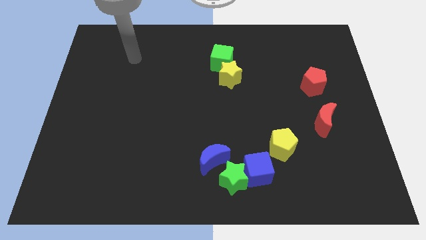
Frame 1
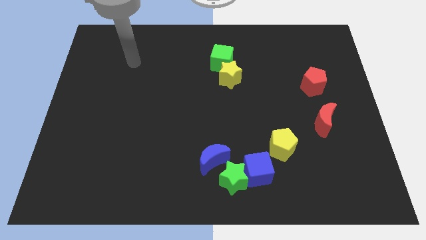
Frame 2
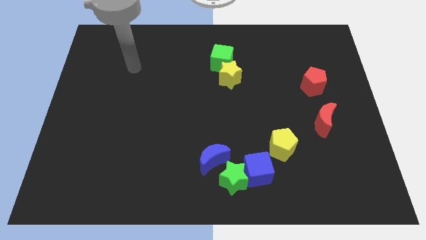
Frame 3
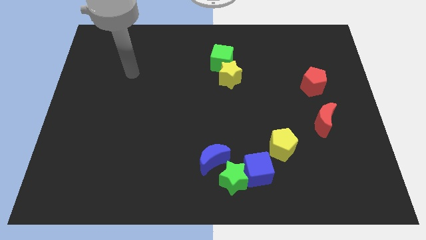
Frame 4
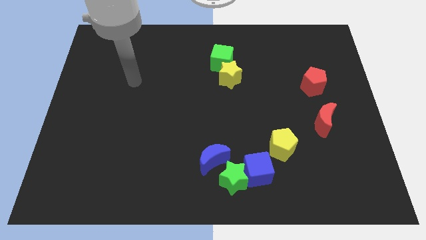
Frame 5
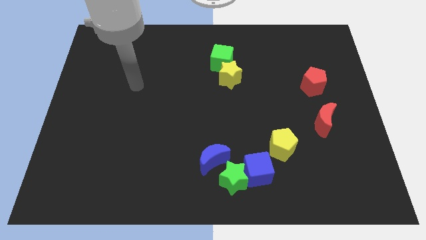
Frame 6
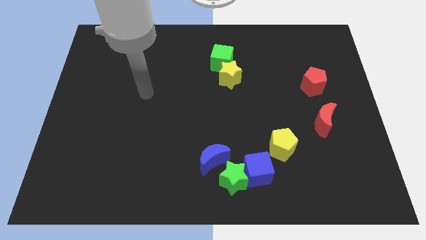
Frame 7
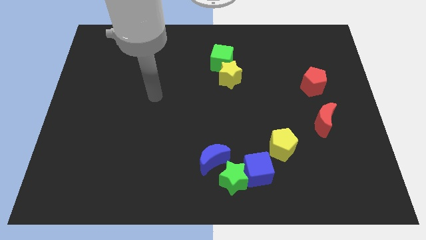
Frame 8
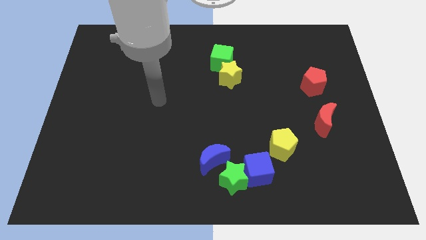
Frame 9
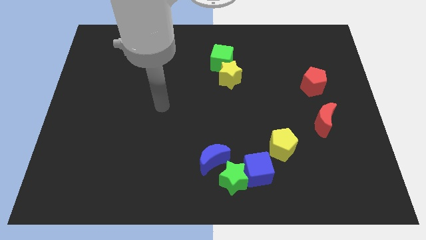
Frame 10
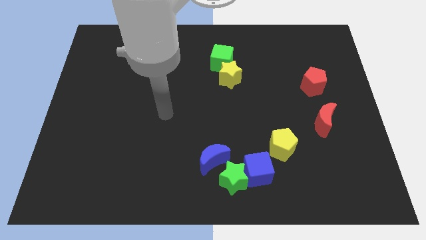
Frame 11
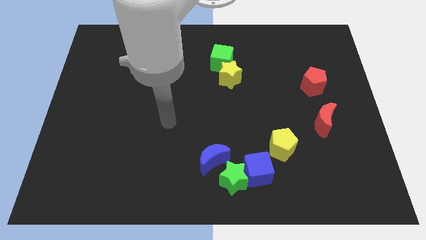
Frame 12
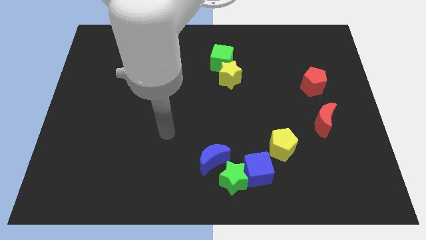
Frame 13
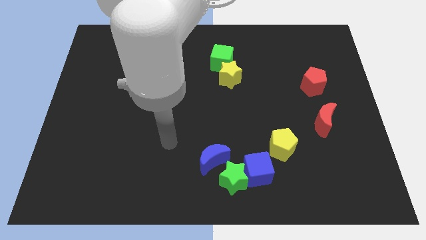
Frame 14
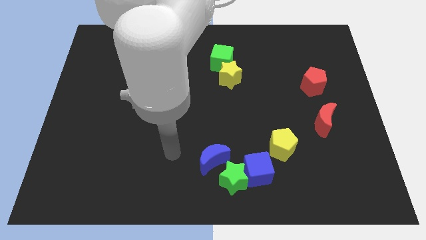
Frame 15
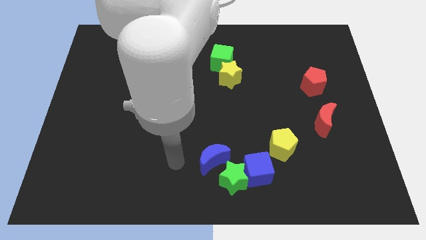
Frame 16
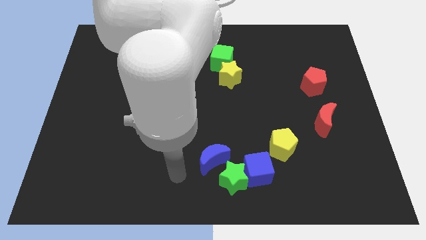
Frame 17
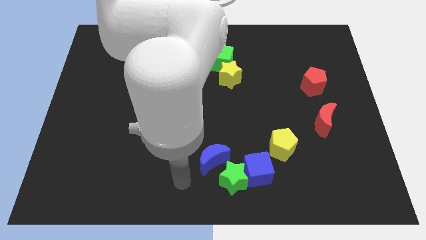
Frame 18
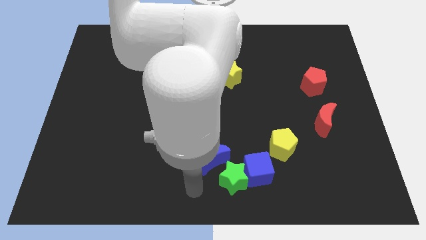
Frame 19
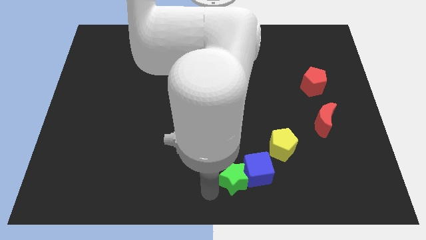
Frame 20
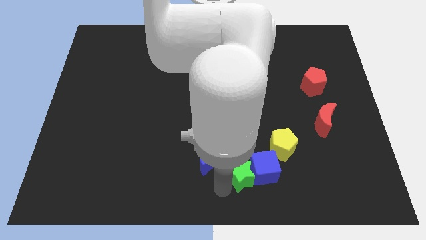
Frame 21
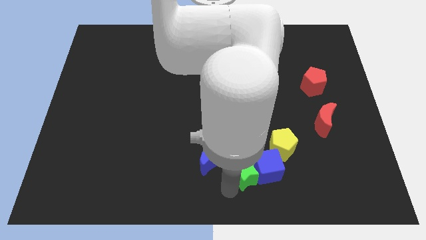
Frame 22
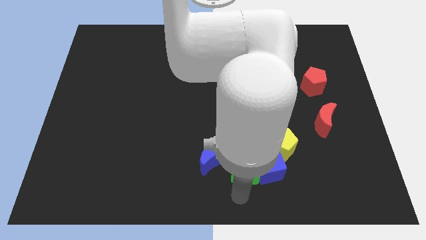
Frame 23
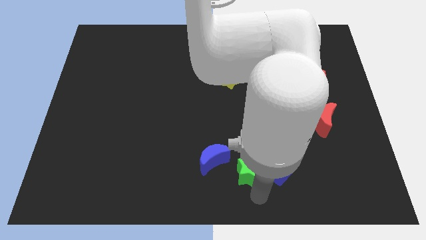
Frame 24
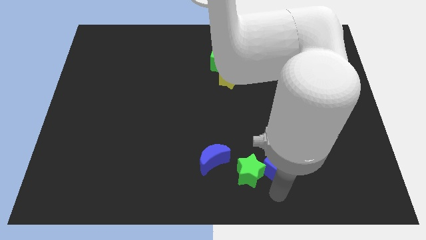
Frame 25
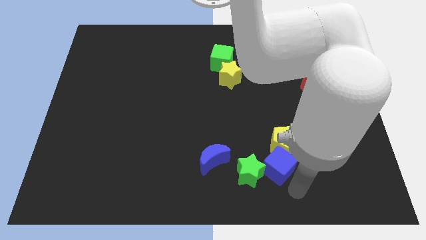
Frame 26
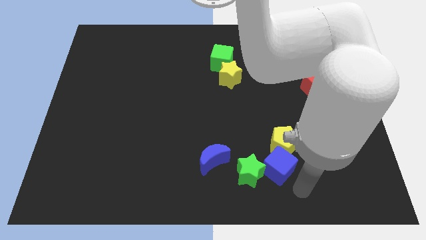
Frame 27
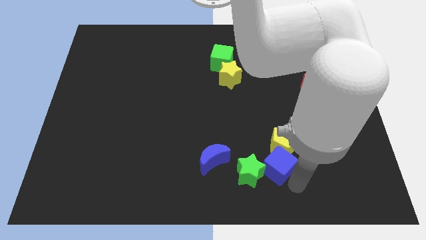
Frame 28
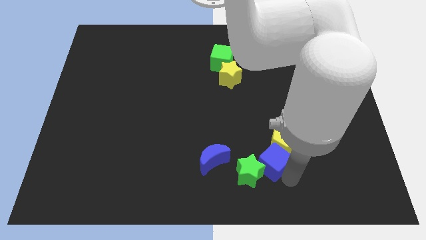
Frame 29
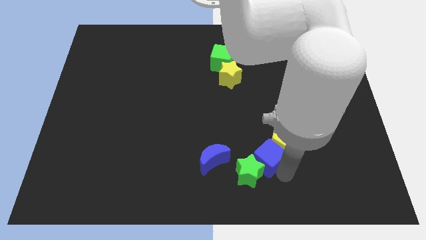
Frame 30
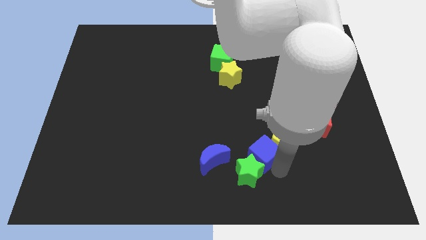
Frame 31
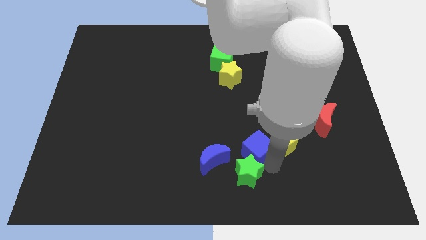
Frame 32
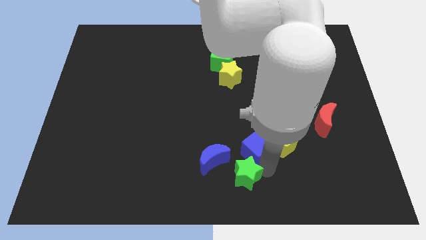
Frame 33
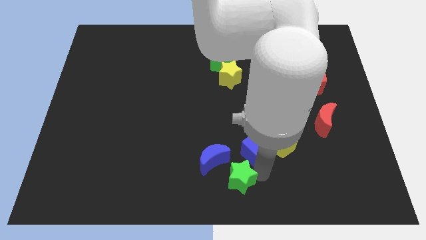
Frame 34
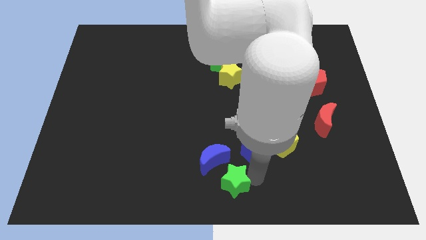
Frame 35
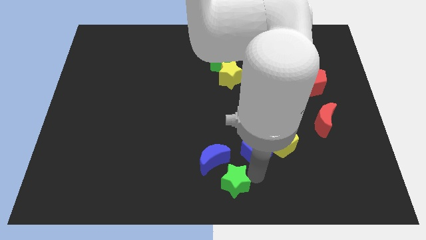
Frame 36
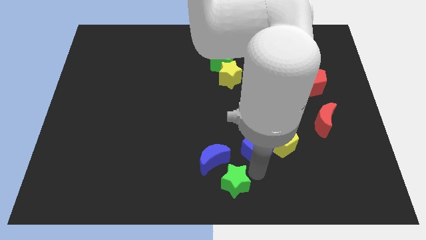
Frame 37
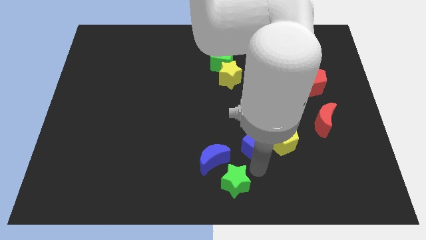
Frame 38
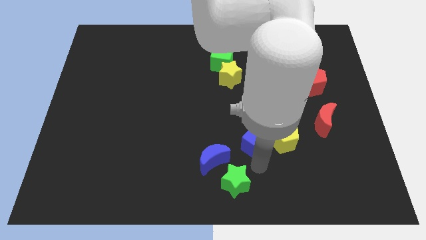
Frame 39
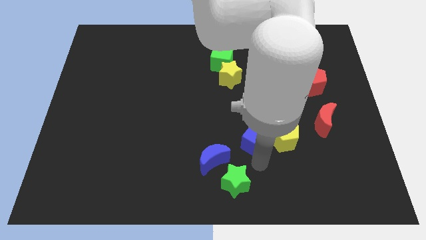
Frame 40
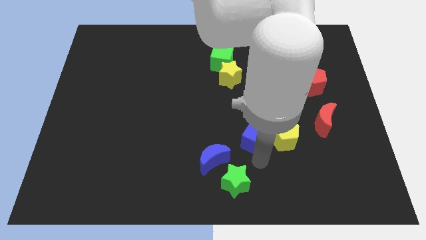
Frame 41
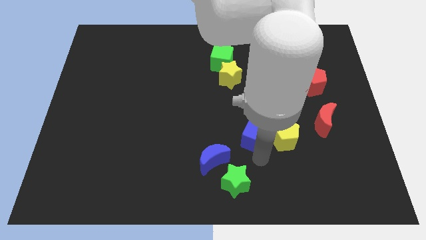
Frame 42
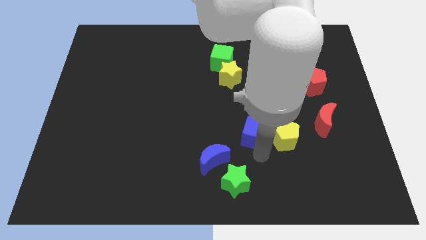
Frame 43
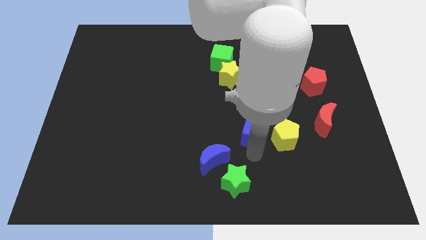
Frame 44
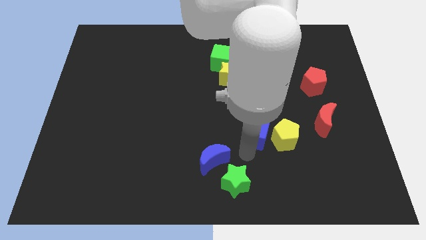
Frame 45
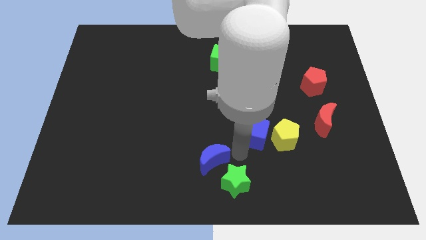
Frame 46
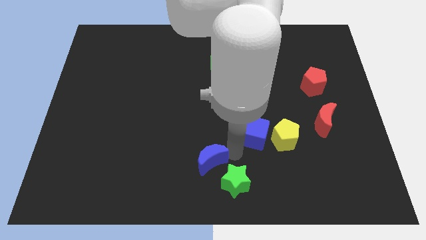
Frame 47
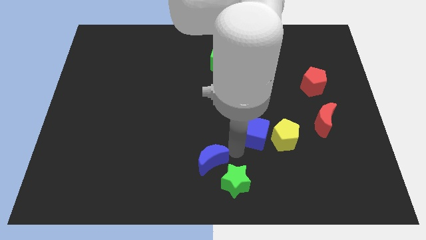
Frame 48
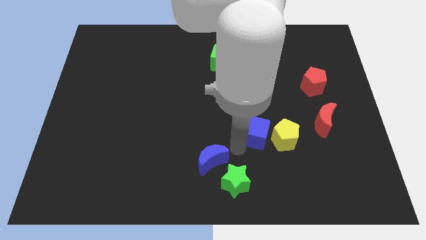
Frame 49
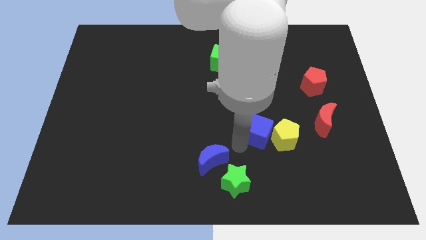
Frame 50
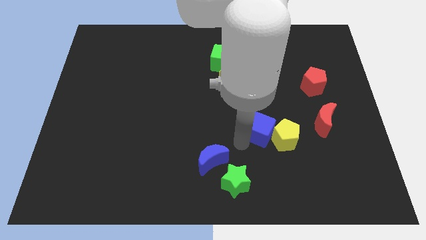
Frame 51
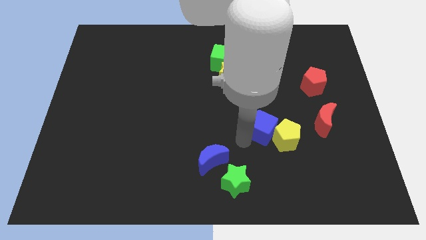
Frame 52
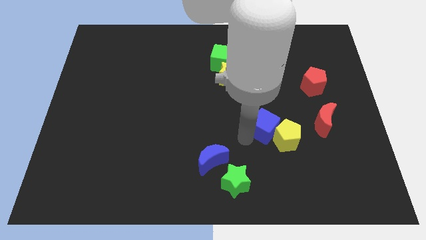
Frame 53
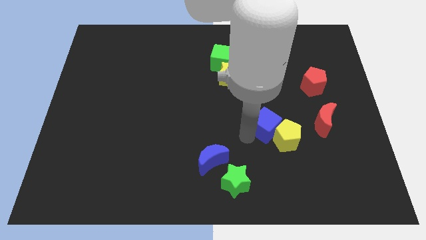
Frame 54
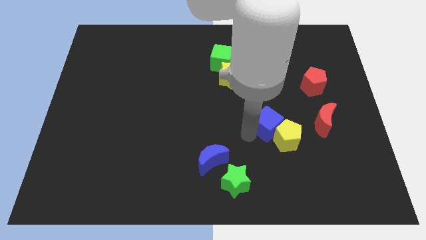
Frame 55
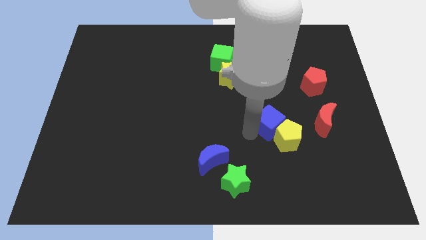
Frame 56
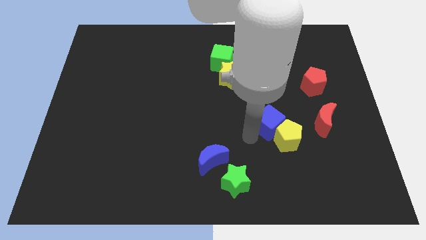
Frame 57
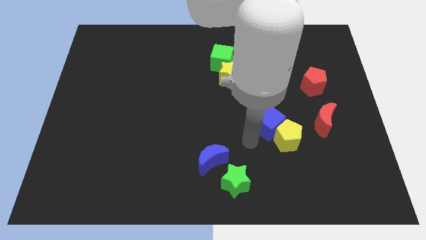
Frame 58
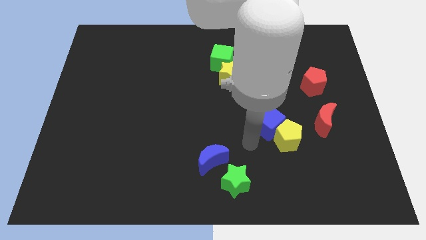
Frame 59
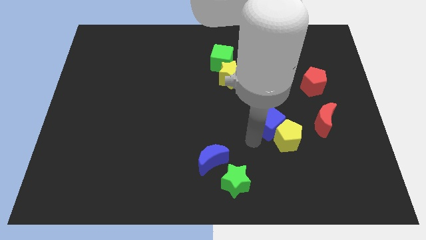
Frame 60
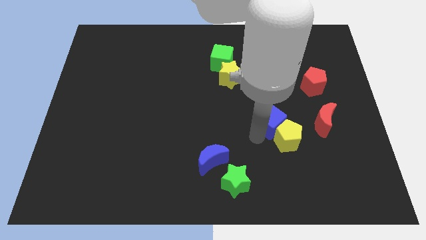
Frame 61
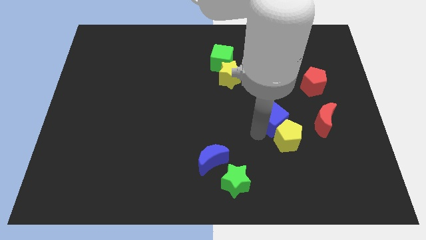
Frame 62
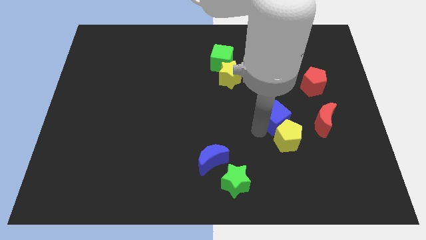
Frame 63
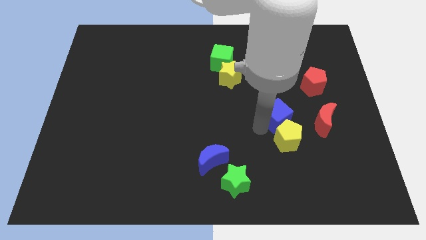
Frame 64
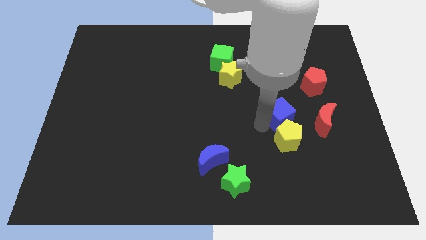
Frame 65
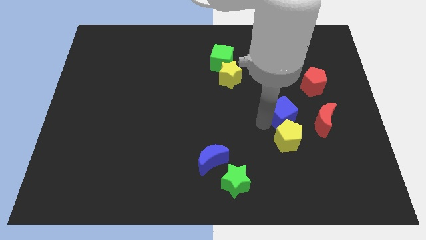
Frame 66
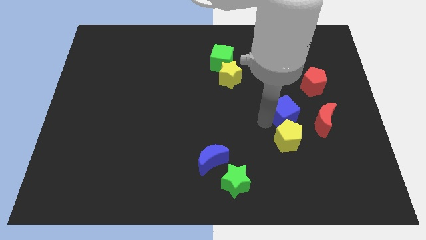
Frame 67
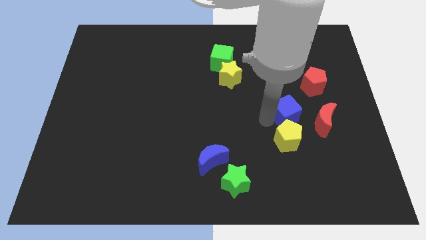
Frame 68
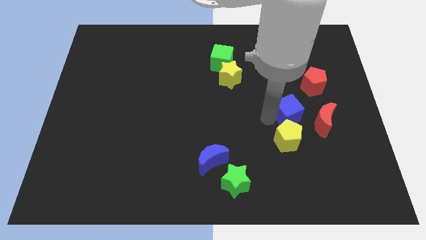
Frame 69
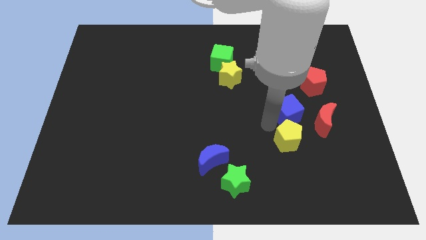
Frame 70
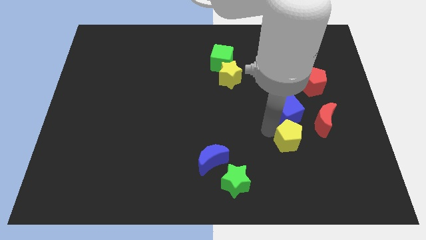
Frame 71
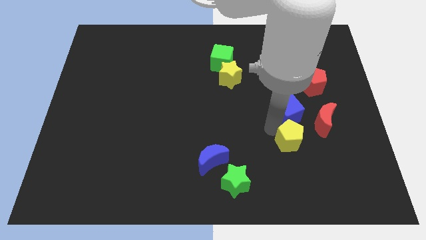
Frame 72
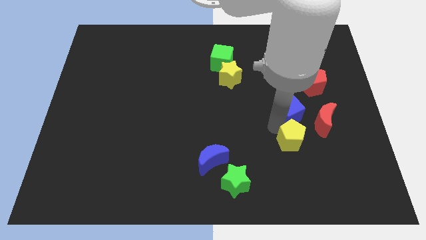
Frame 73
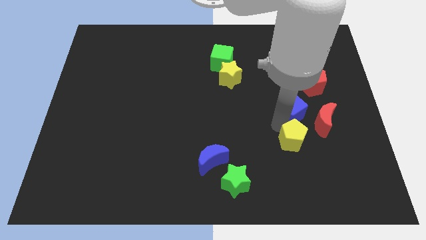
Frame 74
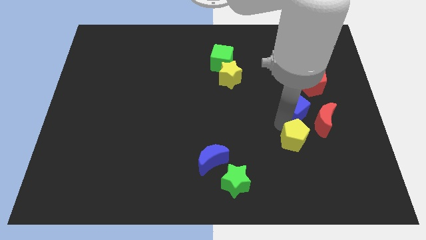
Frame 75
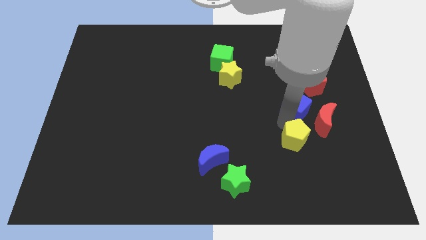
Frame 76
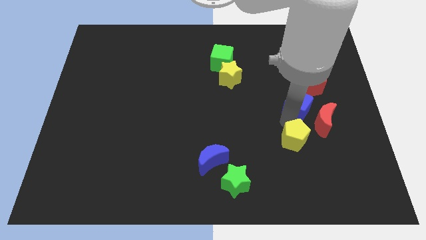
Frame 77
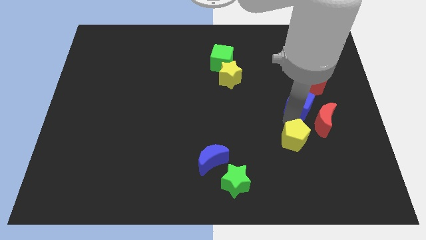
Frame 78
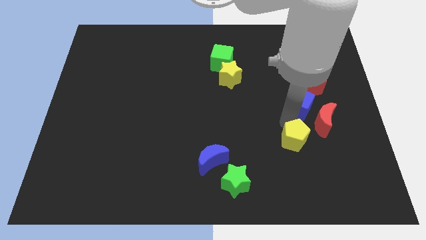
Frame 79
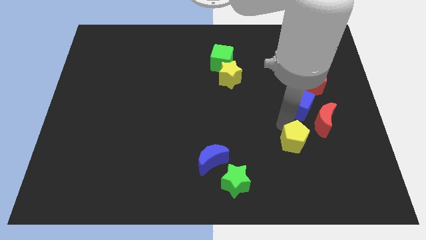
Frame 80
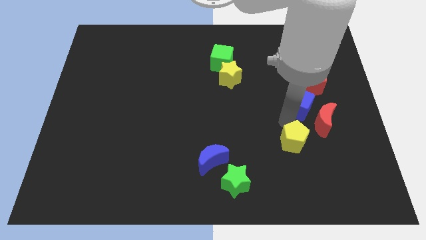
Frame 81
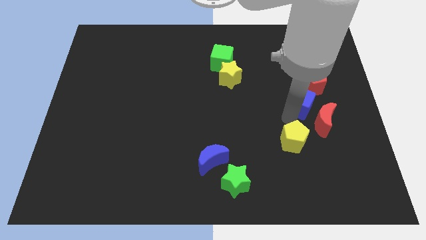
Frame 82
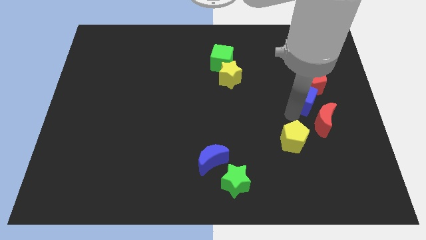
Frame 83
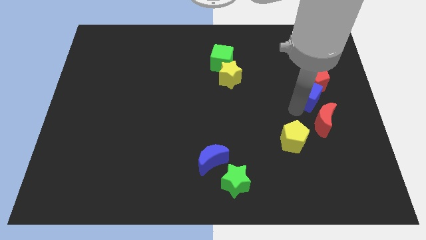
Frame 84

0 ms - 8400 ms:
push the blue cube next to the red pentagon
